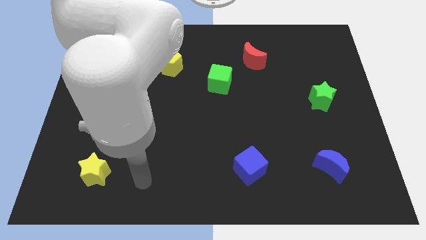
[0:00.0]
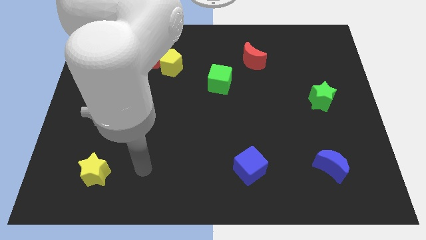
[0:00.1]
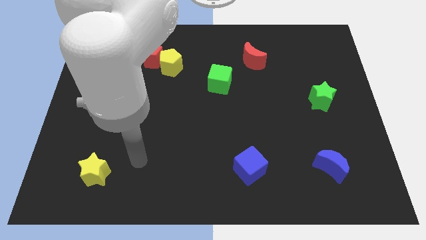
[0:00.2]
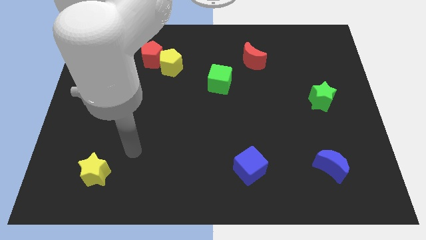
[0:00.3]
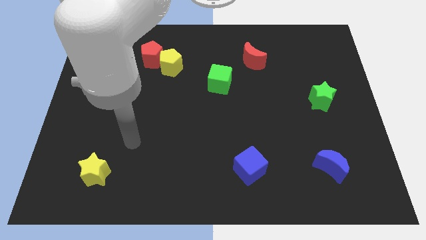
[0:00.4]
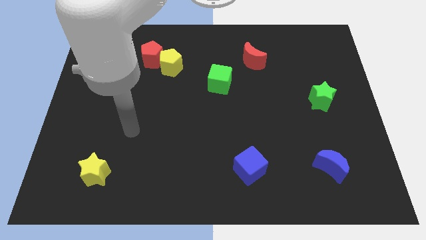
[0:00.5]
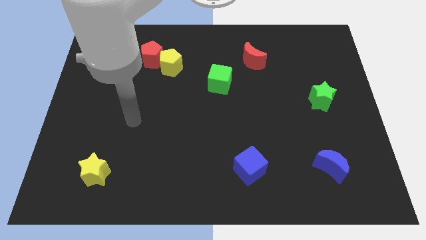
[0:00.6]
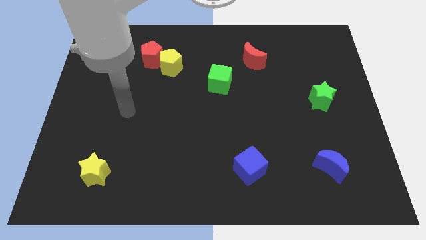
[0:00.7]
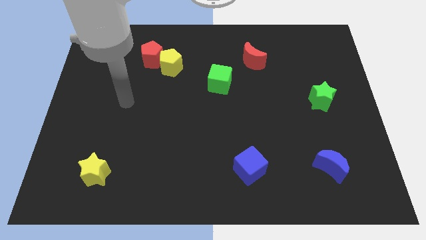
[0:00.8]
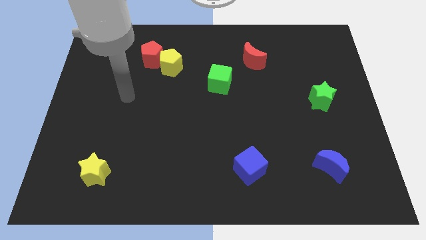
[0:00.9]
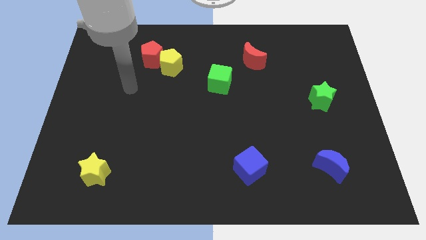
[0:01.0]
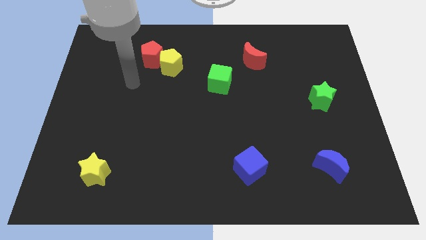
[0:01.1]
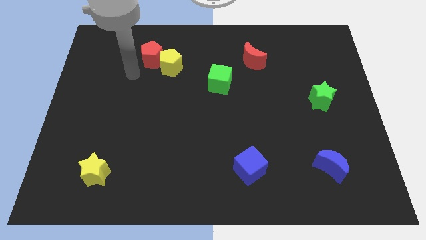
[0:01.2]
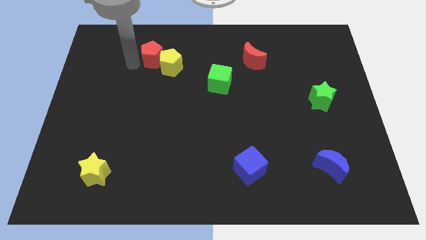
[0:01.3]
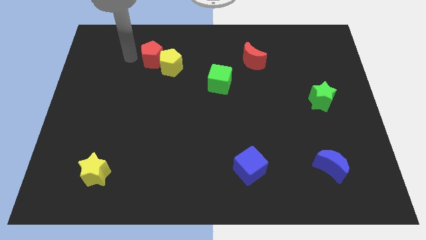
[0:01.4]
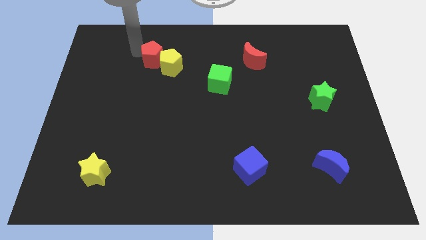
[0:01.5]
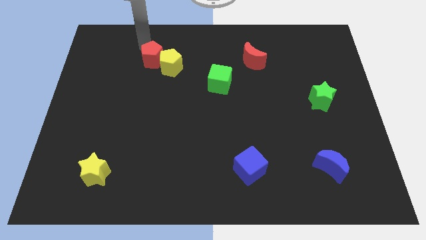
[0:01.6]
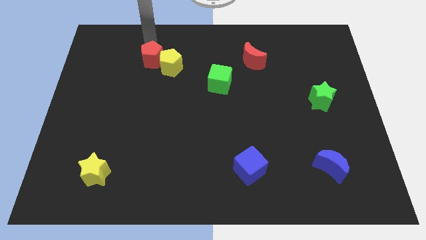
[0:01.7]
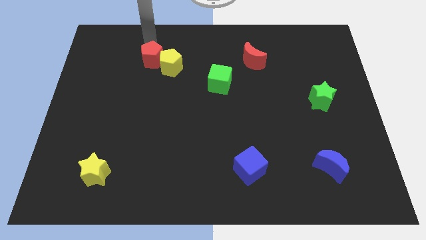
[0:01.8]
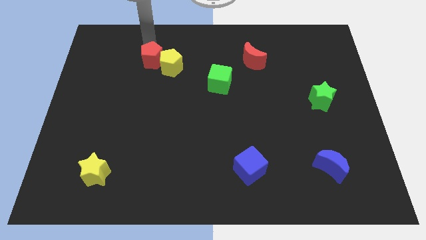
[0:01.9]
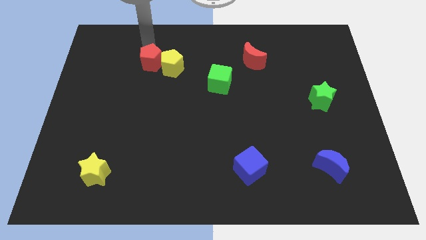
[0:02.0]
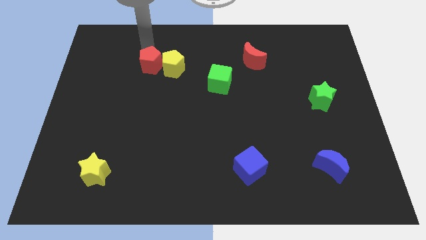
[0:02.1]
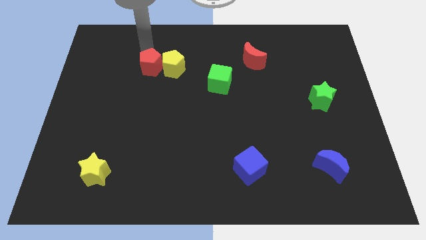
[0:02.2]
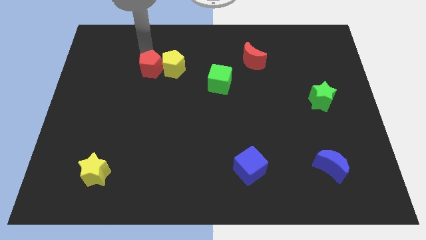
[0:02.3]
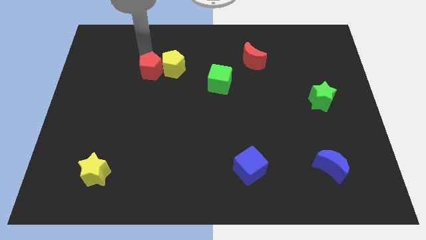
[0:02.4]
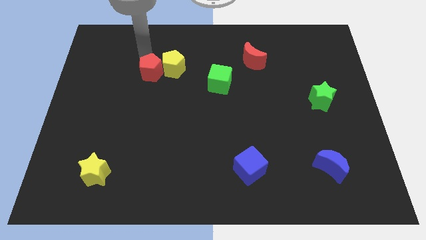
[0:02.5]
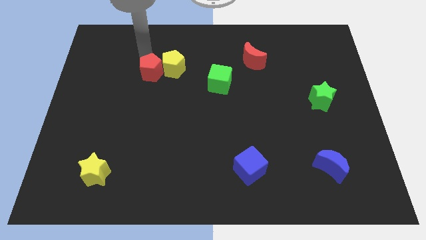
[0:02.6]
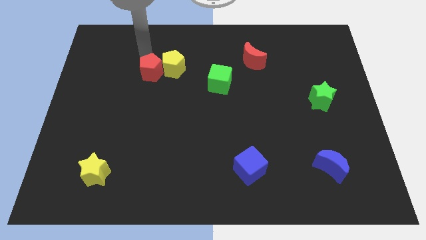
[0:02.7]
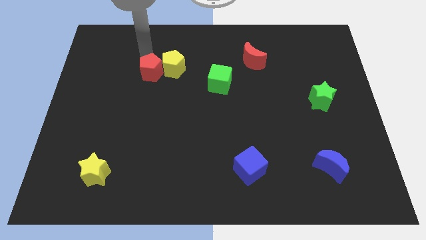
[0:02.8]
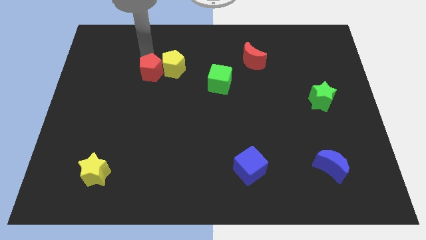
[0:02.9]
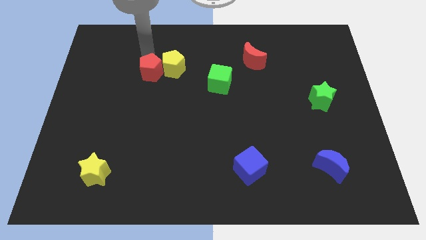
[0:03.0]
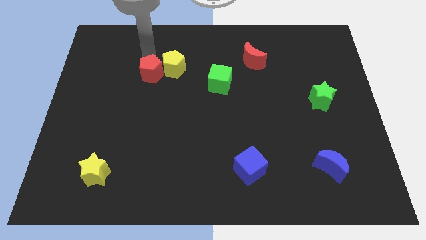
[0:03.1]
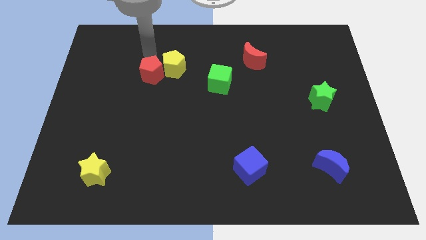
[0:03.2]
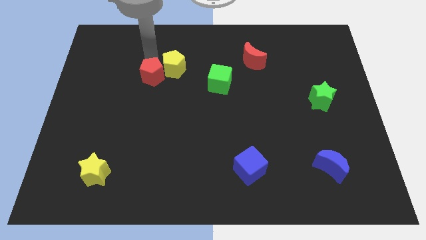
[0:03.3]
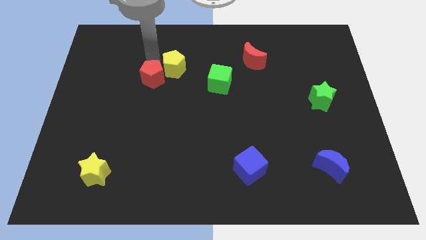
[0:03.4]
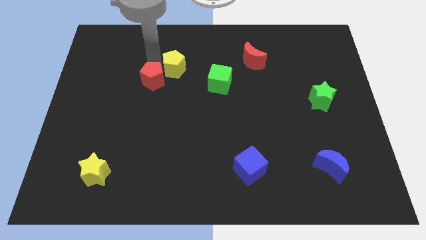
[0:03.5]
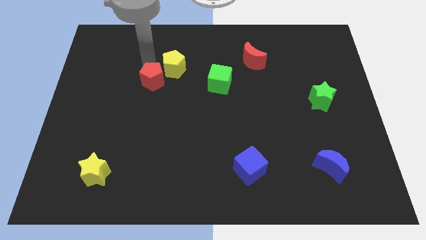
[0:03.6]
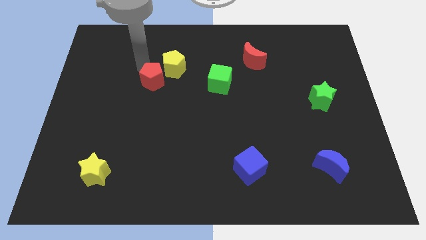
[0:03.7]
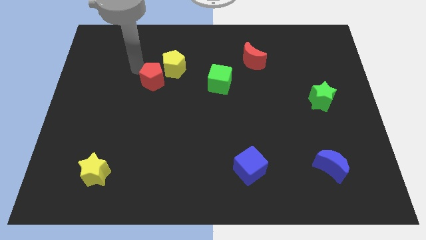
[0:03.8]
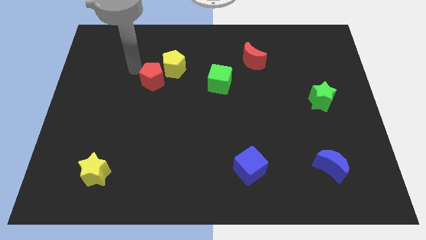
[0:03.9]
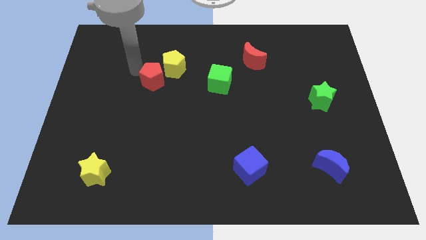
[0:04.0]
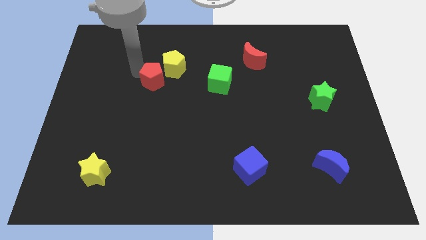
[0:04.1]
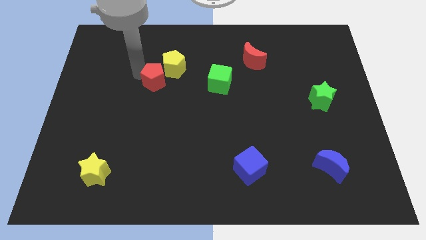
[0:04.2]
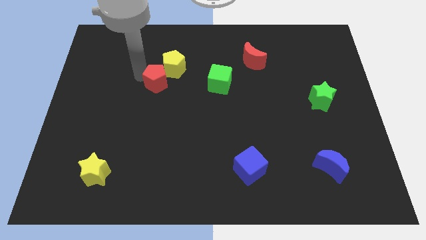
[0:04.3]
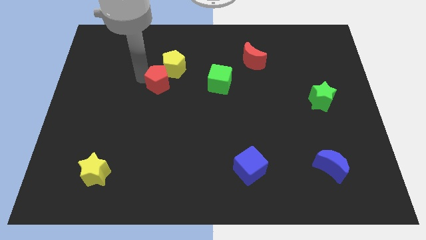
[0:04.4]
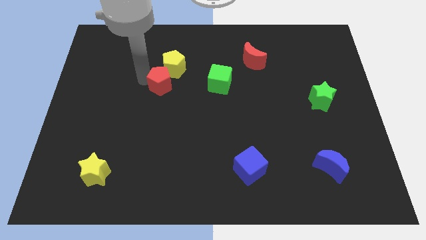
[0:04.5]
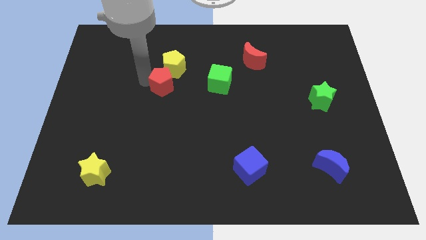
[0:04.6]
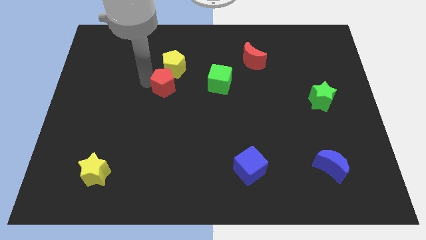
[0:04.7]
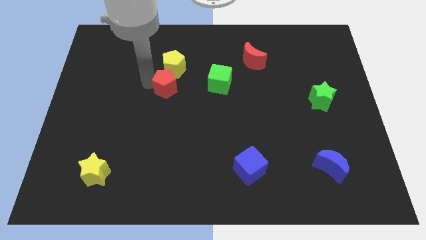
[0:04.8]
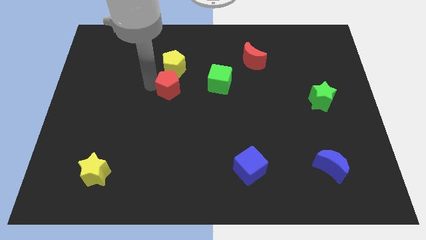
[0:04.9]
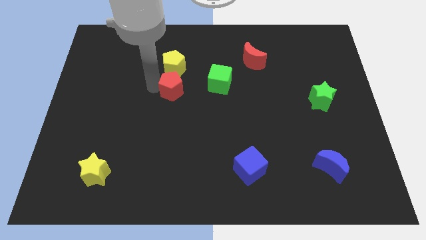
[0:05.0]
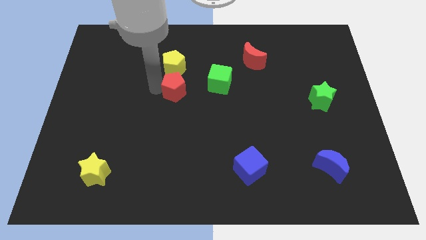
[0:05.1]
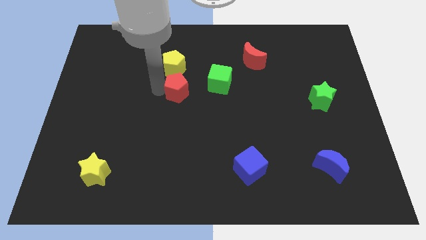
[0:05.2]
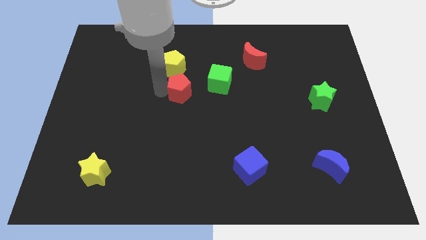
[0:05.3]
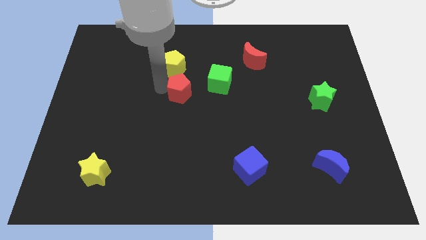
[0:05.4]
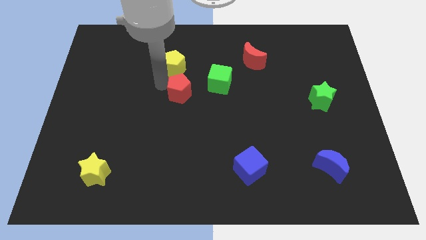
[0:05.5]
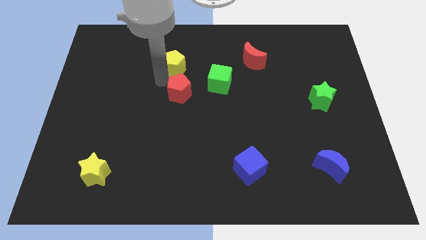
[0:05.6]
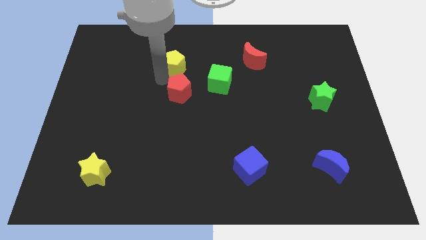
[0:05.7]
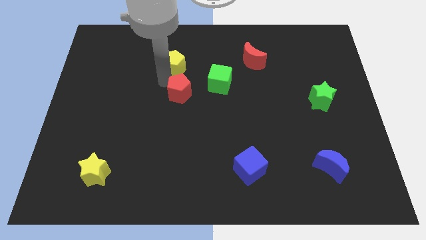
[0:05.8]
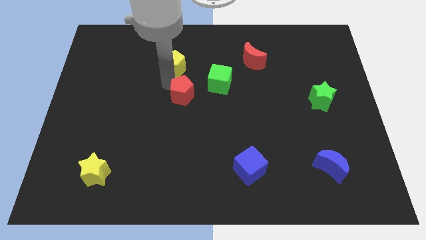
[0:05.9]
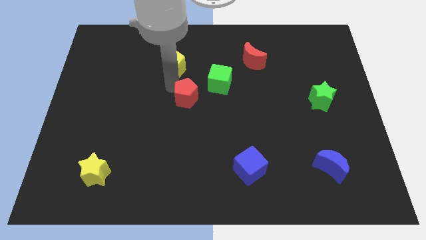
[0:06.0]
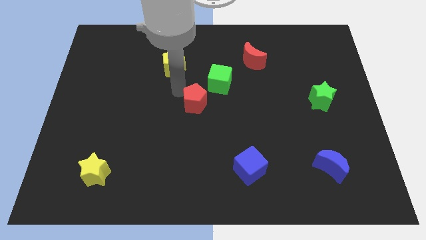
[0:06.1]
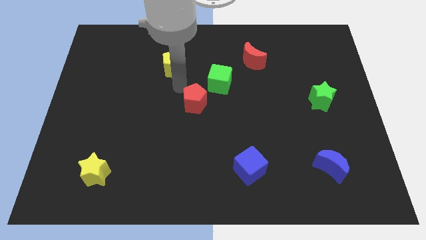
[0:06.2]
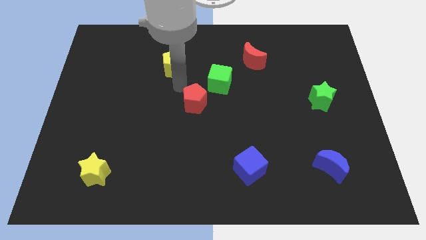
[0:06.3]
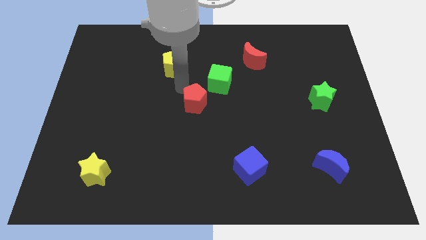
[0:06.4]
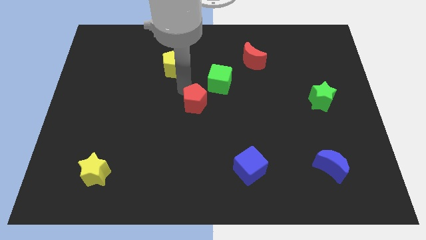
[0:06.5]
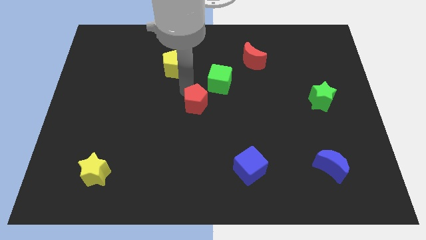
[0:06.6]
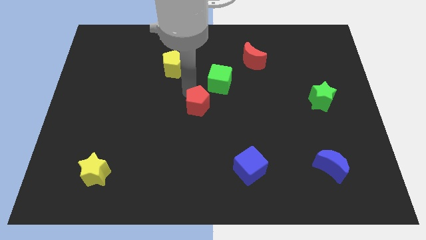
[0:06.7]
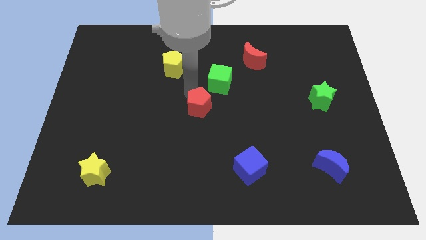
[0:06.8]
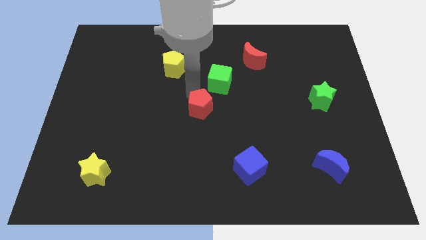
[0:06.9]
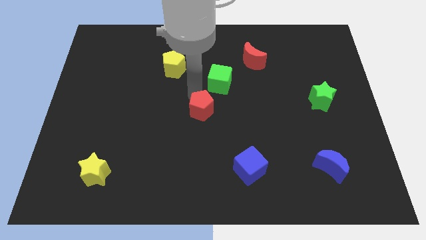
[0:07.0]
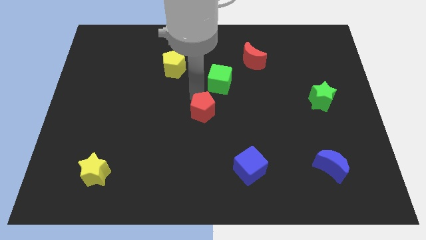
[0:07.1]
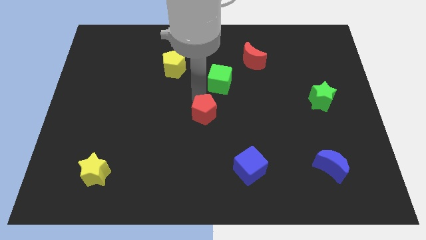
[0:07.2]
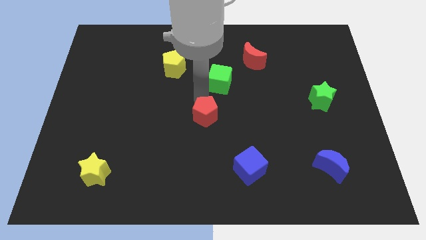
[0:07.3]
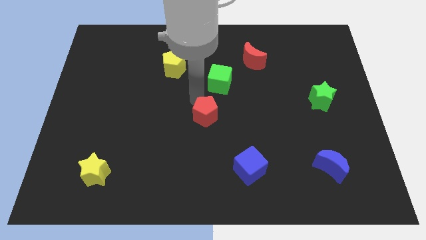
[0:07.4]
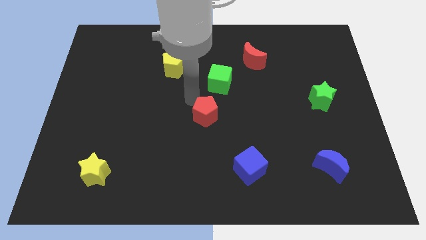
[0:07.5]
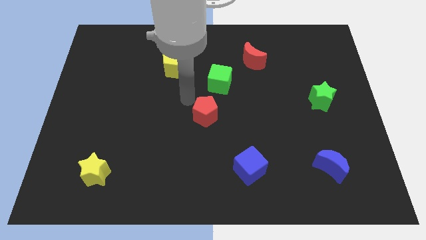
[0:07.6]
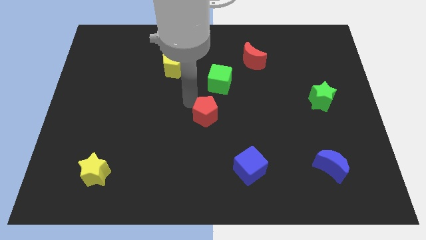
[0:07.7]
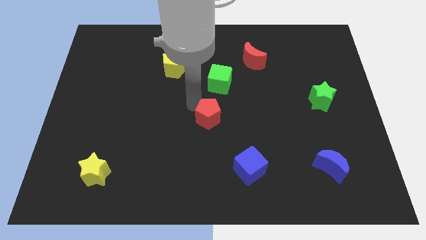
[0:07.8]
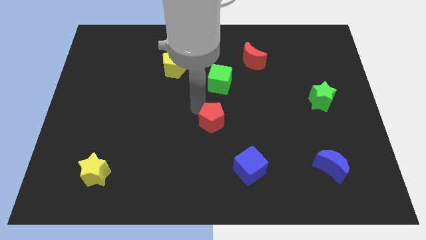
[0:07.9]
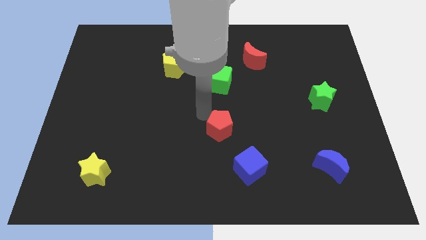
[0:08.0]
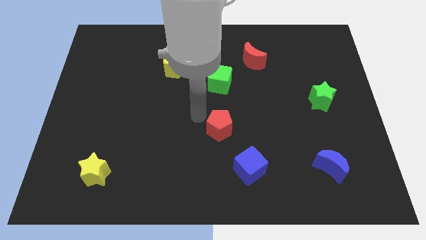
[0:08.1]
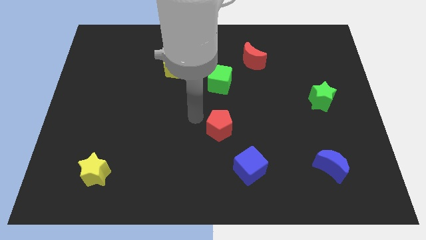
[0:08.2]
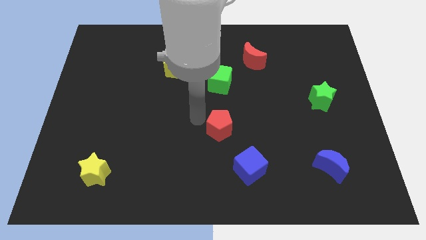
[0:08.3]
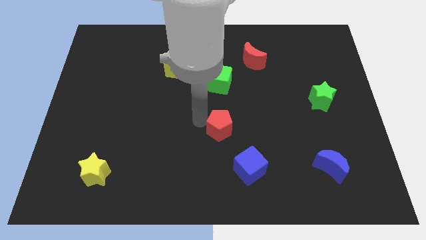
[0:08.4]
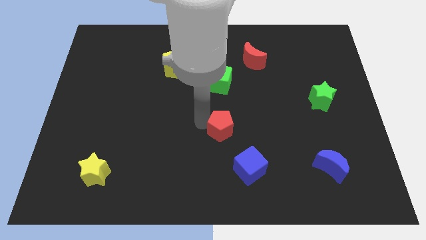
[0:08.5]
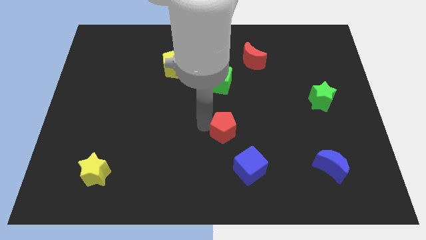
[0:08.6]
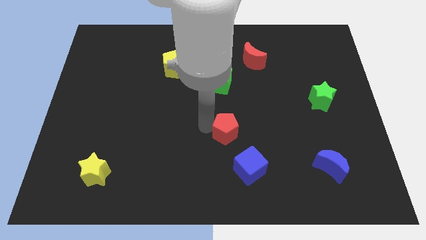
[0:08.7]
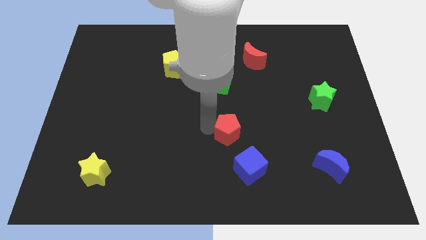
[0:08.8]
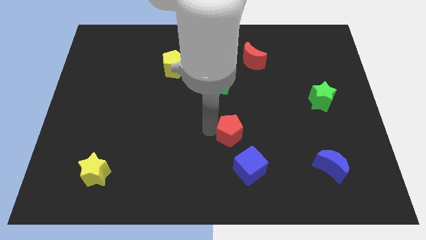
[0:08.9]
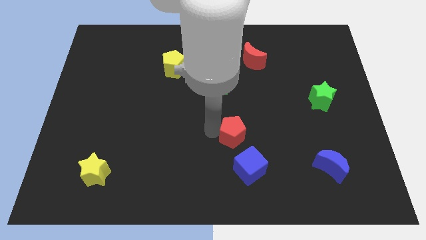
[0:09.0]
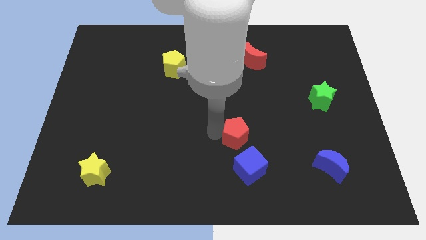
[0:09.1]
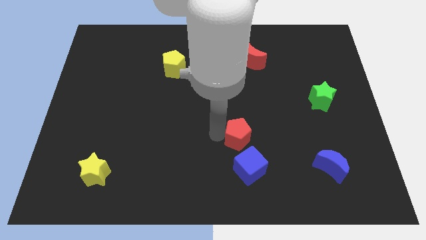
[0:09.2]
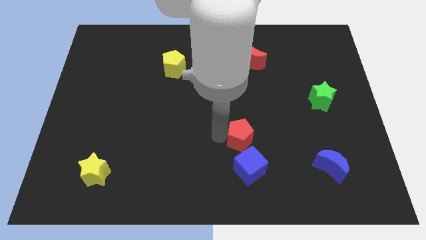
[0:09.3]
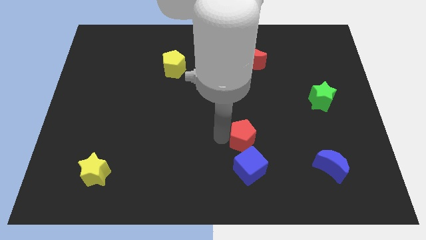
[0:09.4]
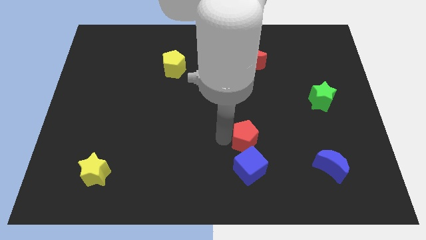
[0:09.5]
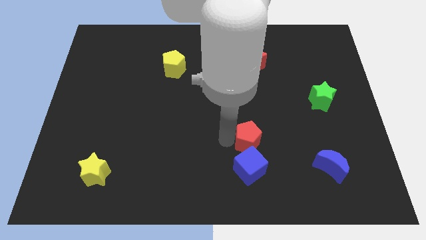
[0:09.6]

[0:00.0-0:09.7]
move the red pentagon to the top right side of the blue cube
